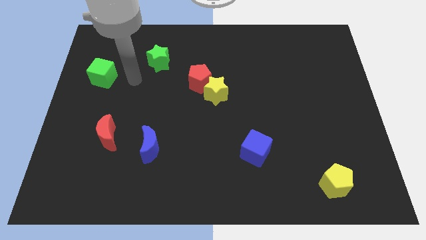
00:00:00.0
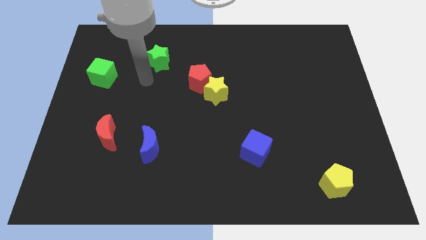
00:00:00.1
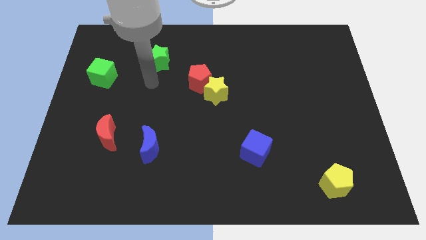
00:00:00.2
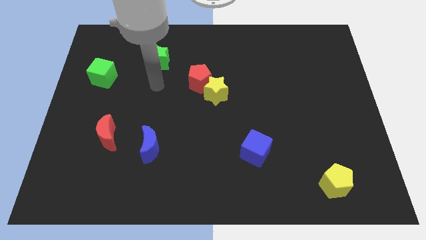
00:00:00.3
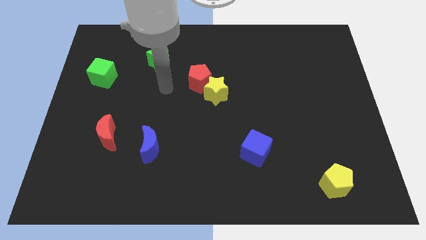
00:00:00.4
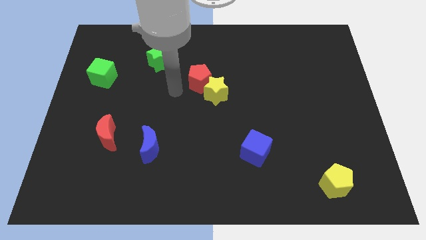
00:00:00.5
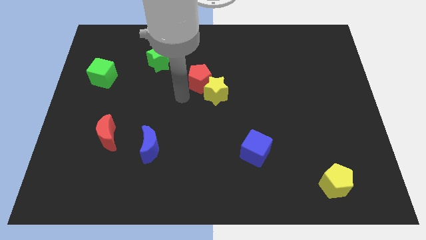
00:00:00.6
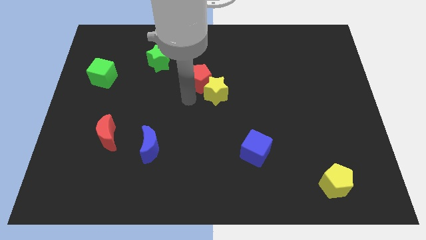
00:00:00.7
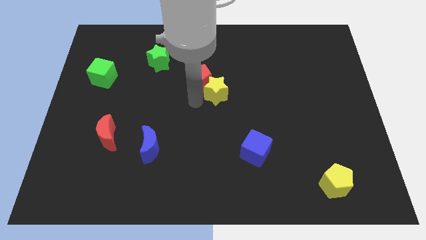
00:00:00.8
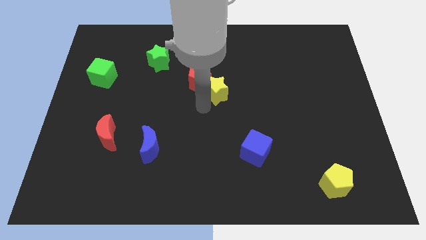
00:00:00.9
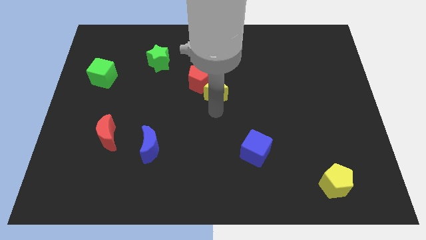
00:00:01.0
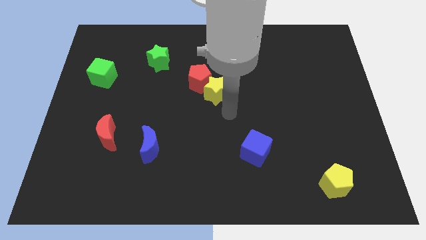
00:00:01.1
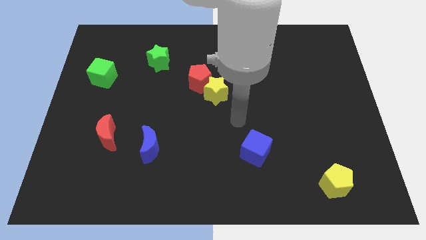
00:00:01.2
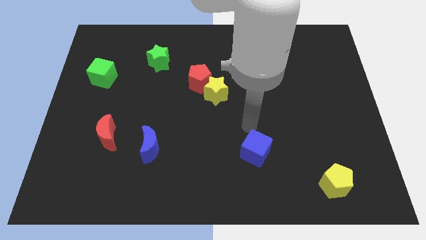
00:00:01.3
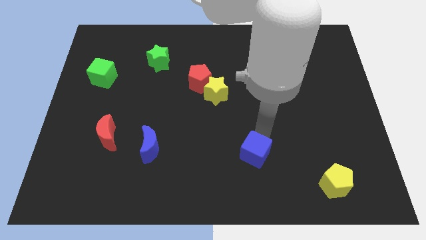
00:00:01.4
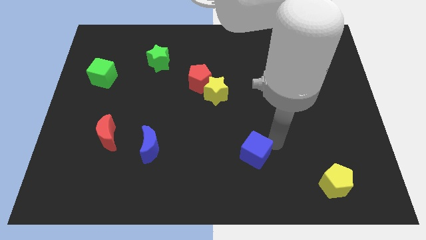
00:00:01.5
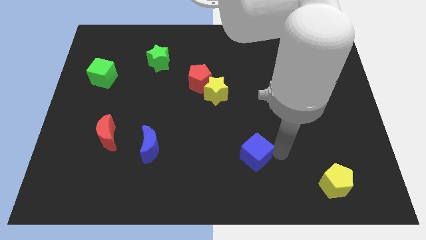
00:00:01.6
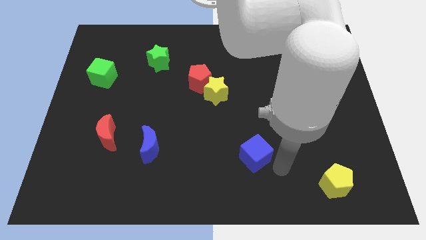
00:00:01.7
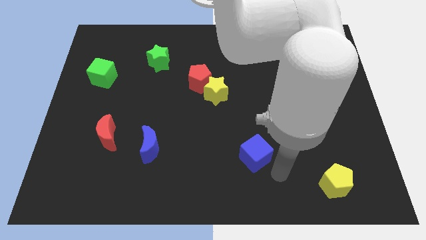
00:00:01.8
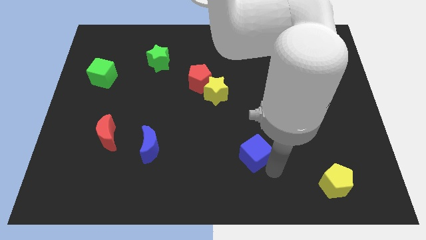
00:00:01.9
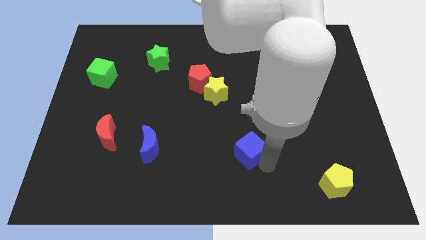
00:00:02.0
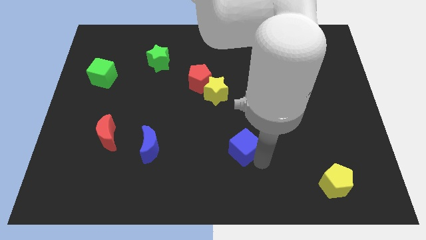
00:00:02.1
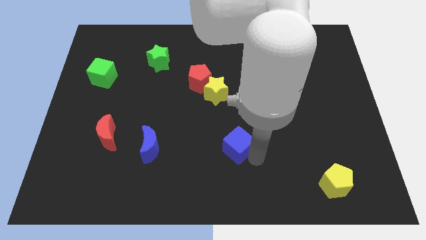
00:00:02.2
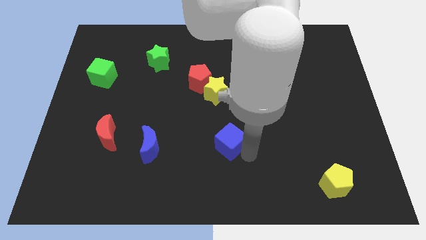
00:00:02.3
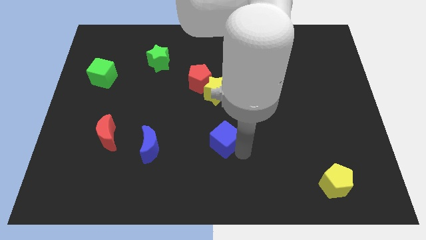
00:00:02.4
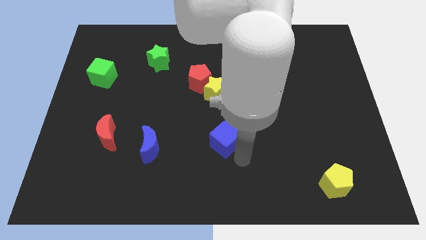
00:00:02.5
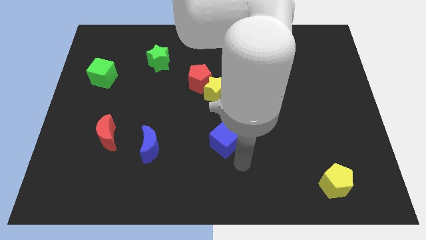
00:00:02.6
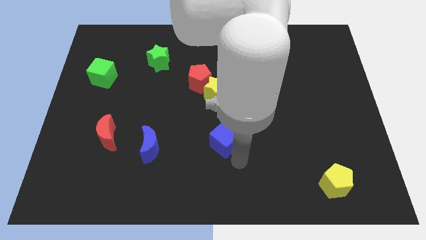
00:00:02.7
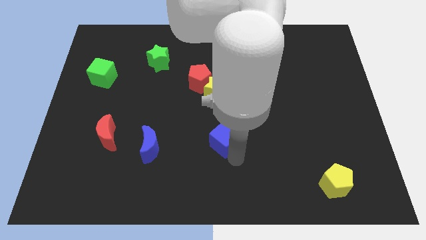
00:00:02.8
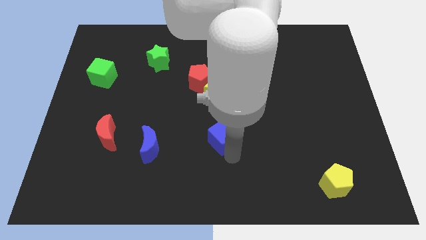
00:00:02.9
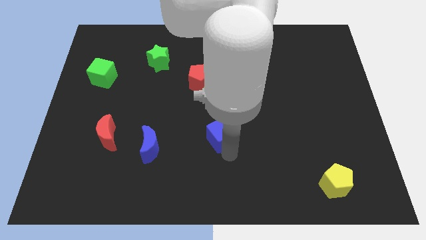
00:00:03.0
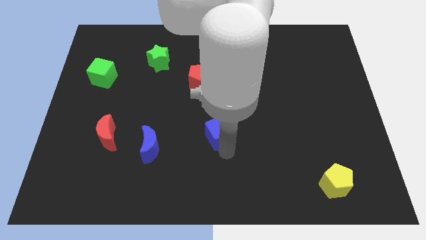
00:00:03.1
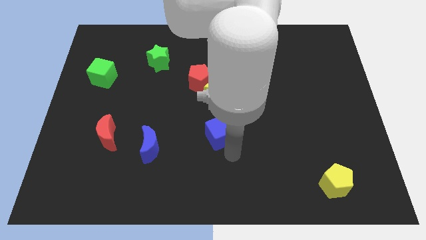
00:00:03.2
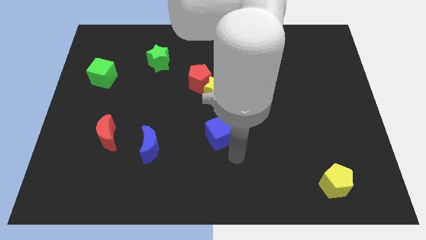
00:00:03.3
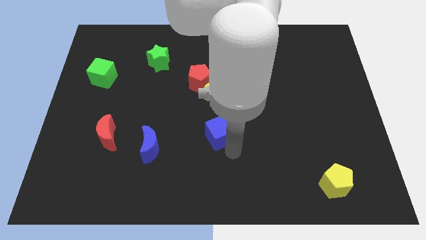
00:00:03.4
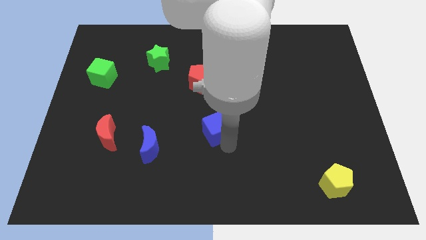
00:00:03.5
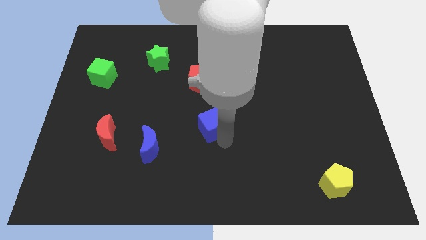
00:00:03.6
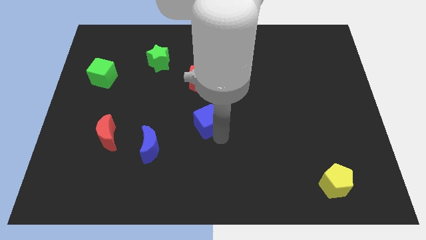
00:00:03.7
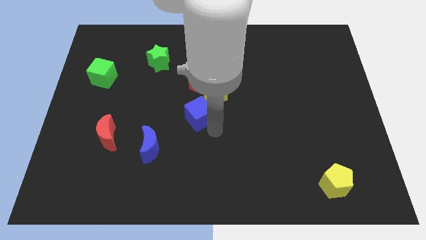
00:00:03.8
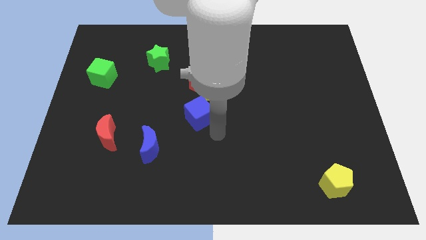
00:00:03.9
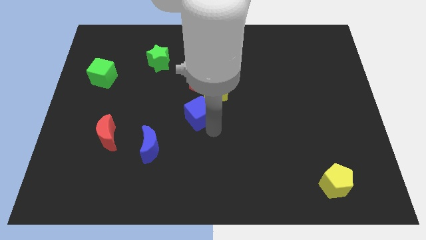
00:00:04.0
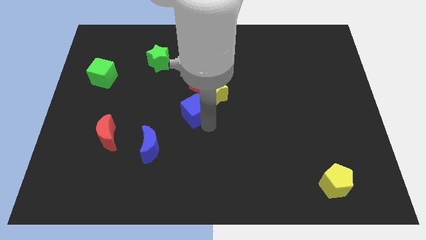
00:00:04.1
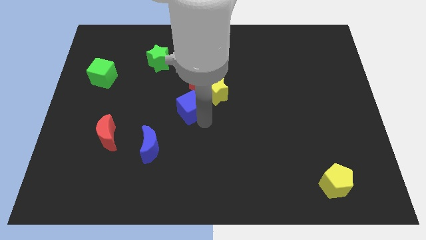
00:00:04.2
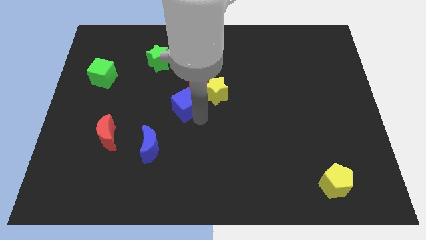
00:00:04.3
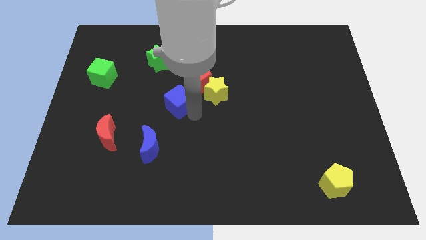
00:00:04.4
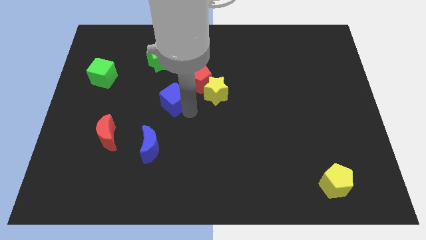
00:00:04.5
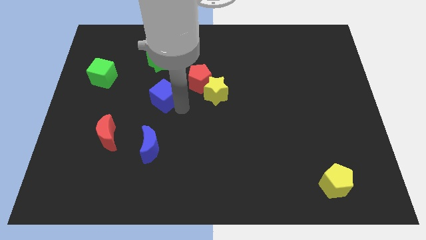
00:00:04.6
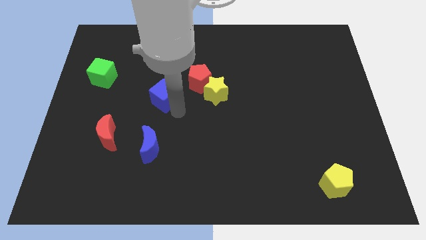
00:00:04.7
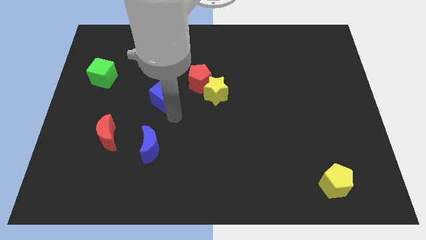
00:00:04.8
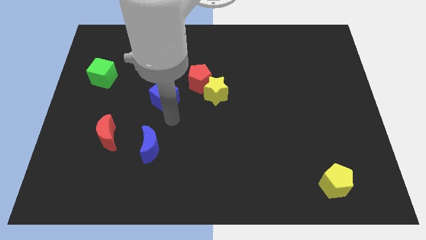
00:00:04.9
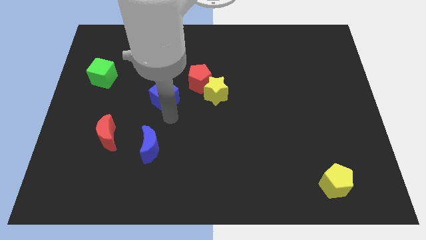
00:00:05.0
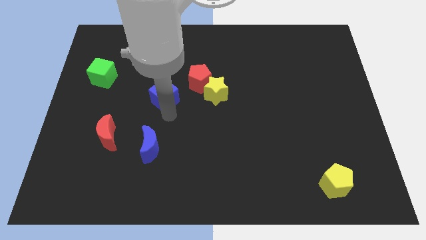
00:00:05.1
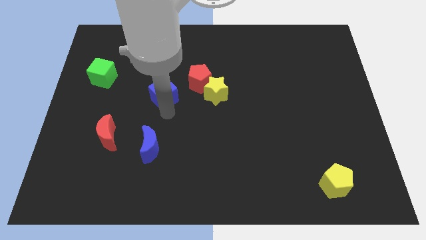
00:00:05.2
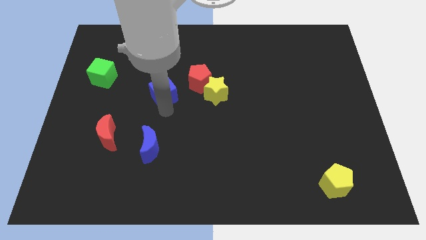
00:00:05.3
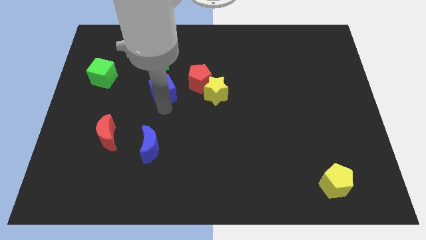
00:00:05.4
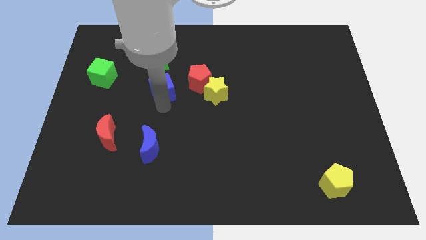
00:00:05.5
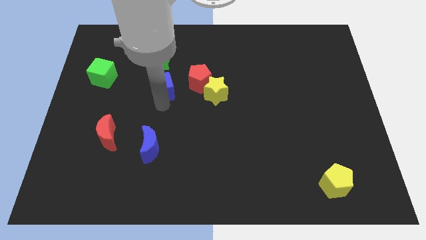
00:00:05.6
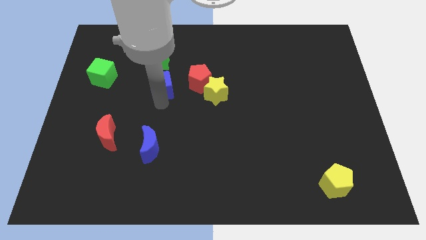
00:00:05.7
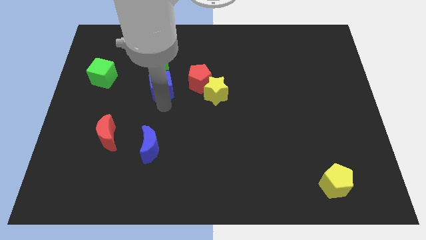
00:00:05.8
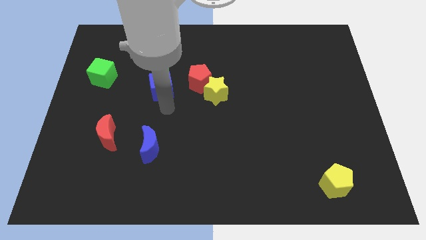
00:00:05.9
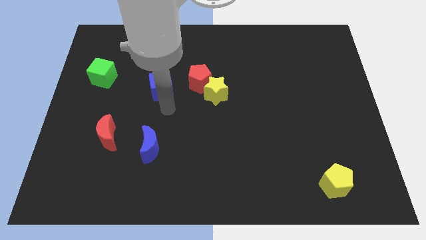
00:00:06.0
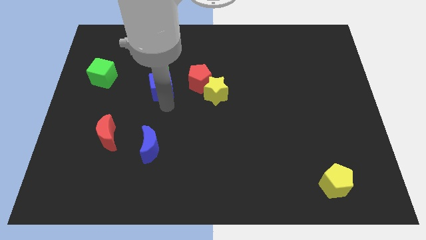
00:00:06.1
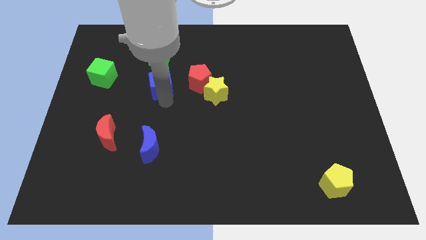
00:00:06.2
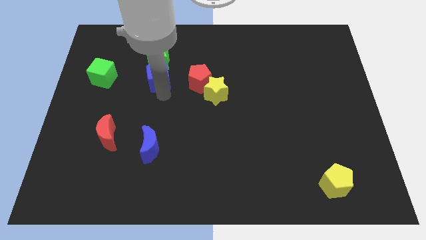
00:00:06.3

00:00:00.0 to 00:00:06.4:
move the blue cube next to the green star

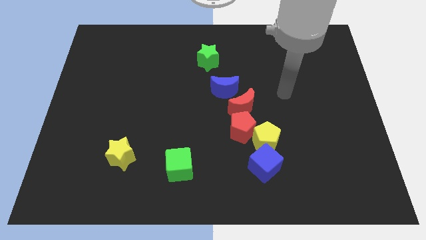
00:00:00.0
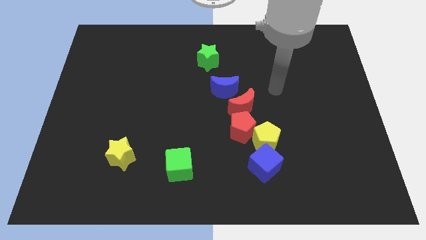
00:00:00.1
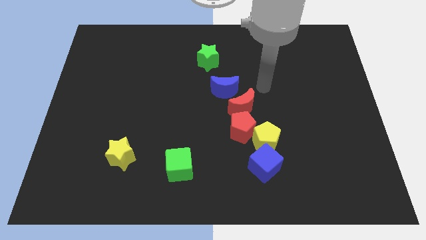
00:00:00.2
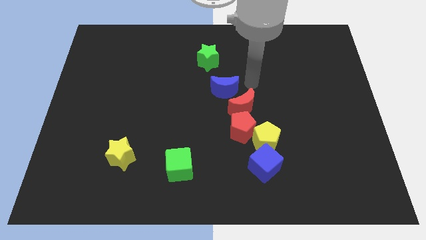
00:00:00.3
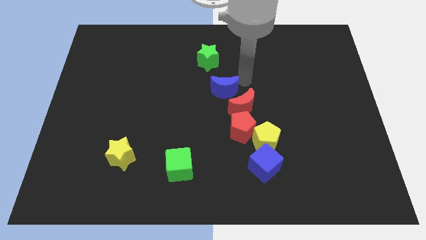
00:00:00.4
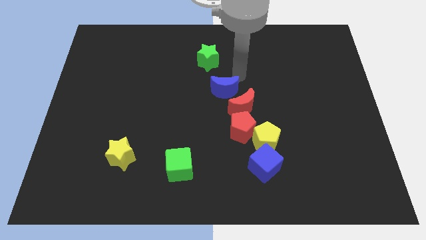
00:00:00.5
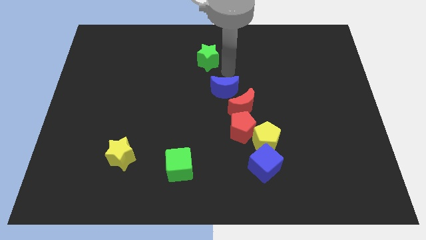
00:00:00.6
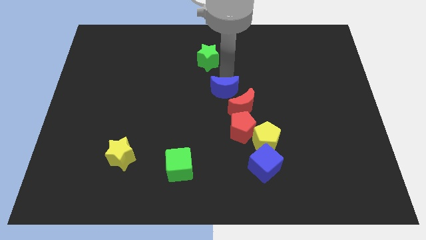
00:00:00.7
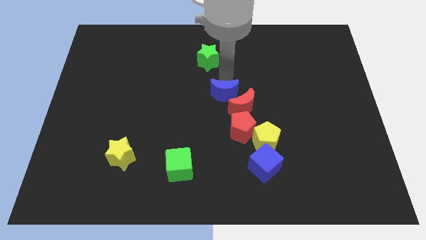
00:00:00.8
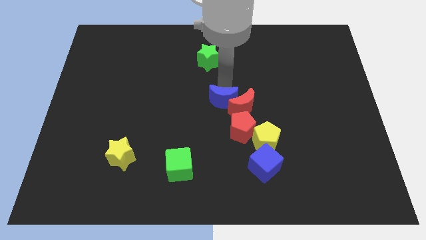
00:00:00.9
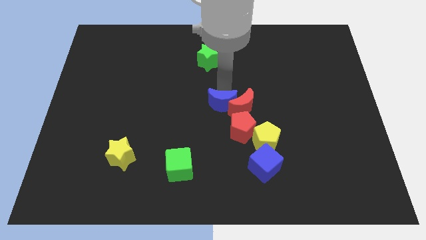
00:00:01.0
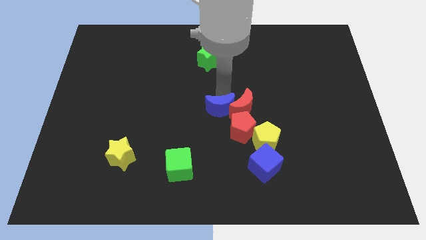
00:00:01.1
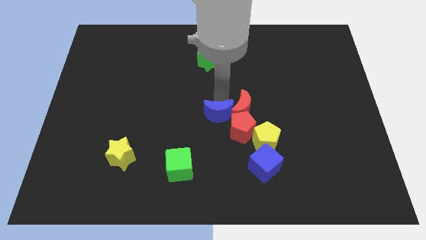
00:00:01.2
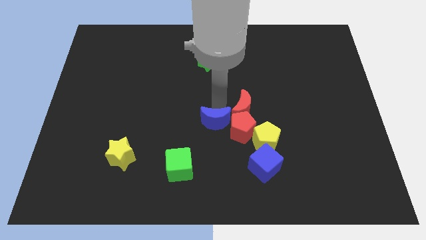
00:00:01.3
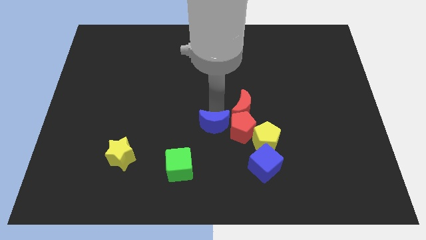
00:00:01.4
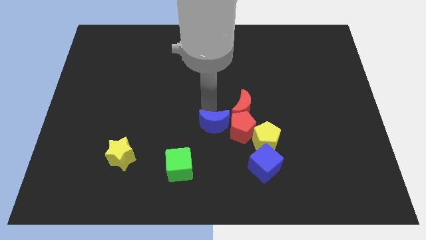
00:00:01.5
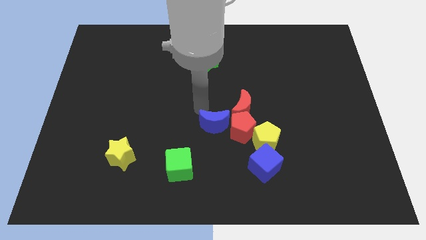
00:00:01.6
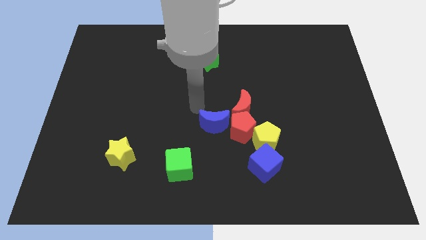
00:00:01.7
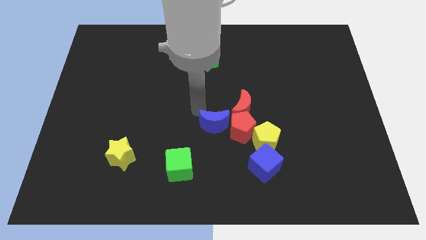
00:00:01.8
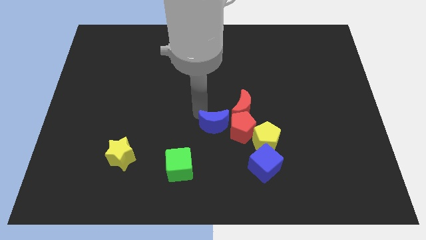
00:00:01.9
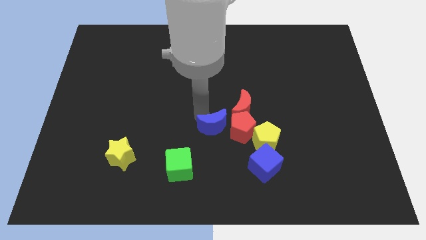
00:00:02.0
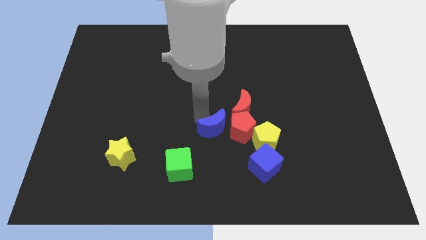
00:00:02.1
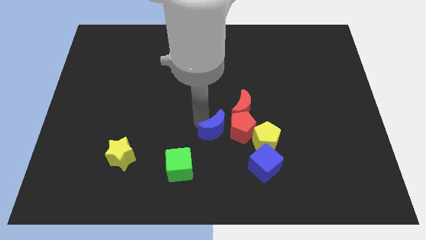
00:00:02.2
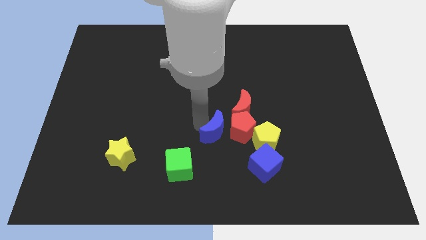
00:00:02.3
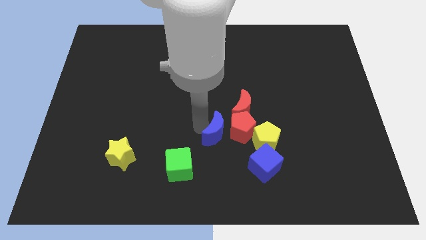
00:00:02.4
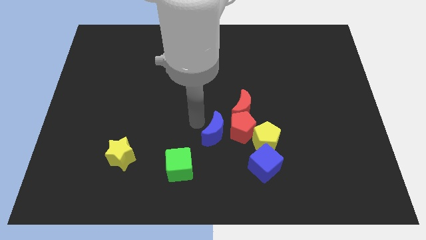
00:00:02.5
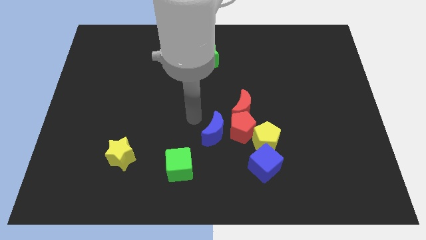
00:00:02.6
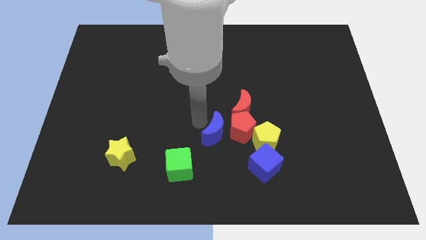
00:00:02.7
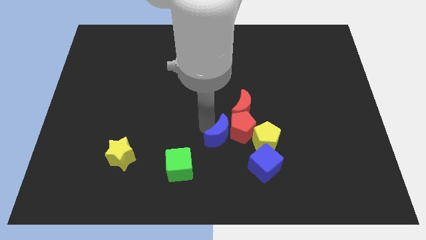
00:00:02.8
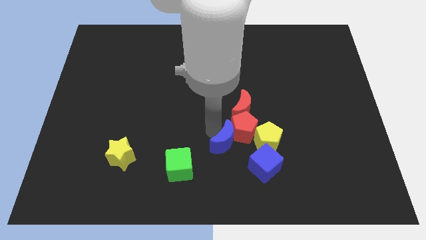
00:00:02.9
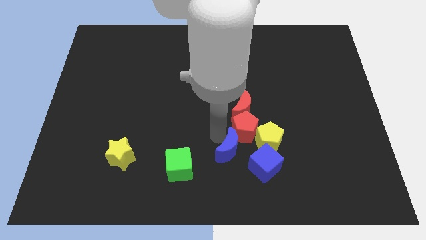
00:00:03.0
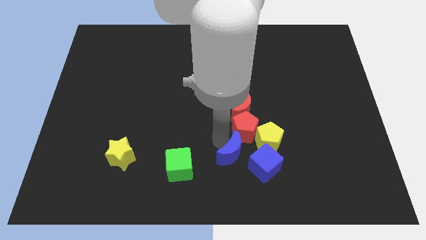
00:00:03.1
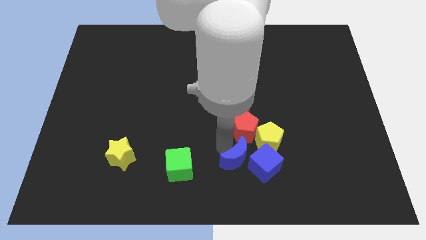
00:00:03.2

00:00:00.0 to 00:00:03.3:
slide the blue moon towards the blue cube
